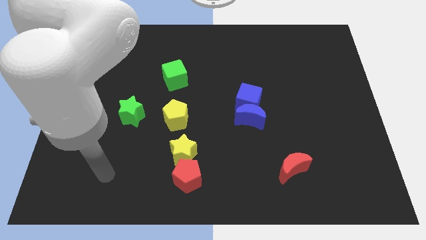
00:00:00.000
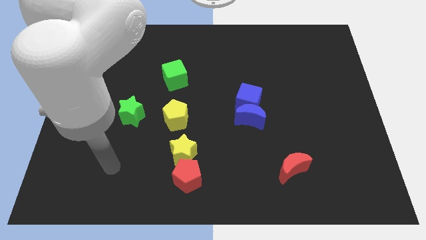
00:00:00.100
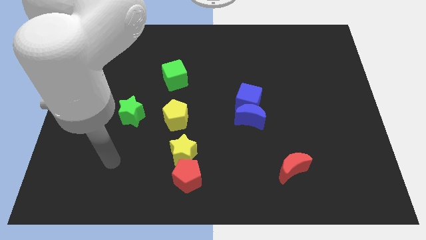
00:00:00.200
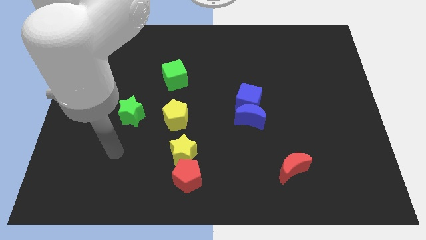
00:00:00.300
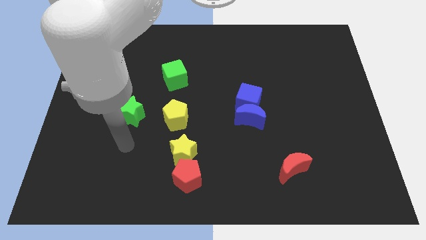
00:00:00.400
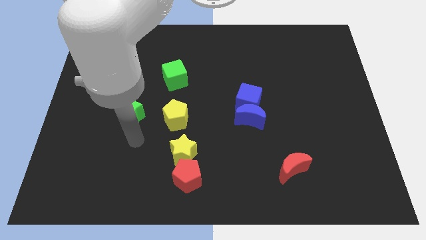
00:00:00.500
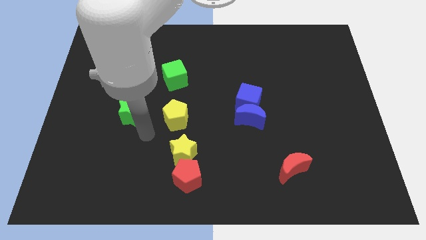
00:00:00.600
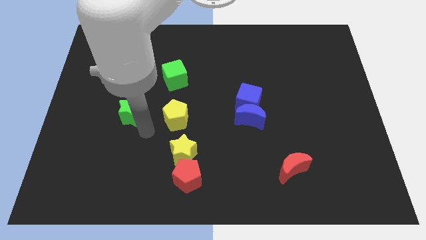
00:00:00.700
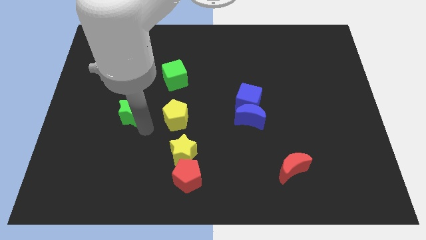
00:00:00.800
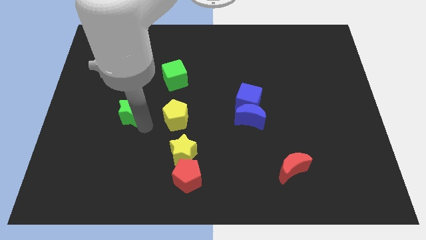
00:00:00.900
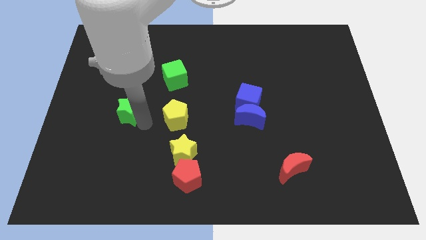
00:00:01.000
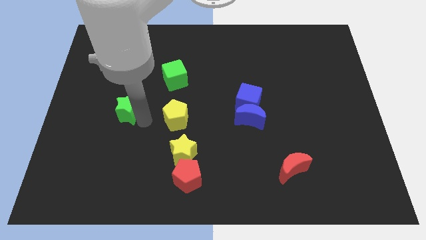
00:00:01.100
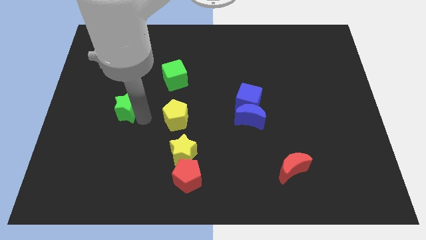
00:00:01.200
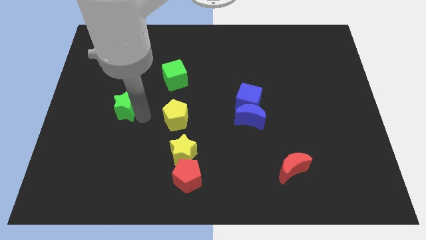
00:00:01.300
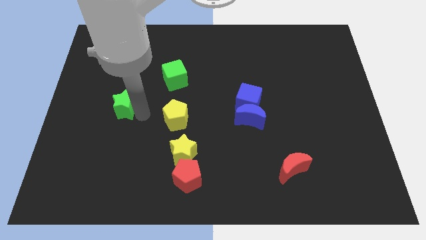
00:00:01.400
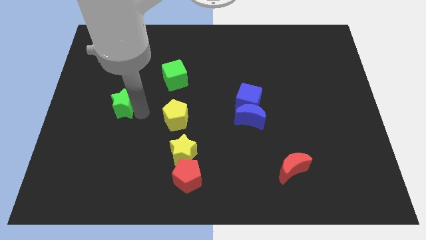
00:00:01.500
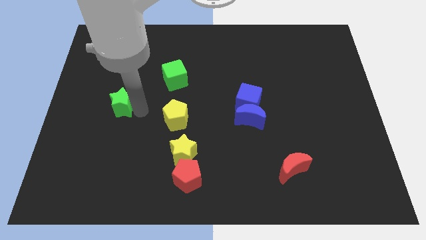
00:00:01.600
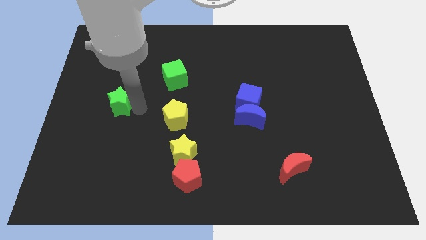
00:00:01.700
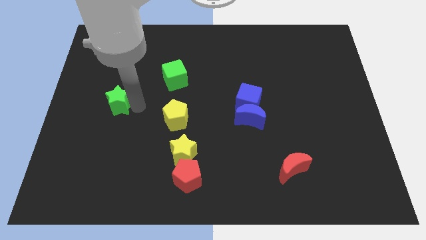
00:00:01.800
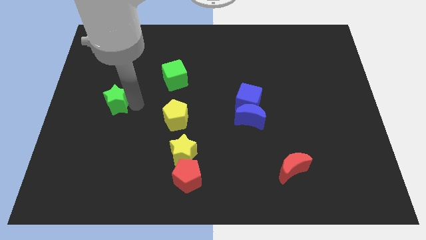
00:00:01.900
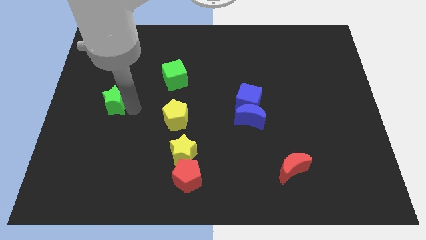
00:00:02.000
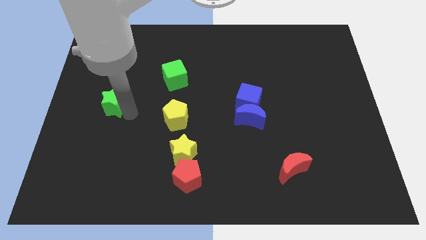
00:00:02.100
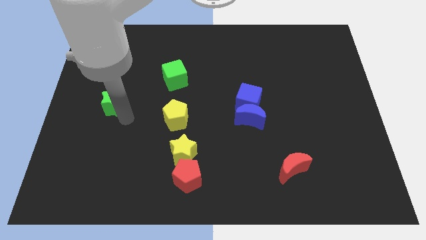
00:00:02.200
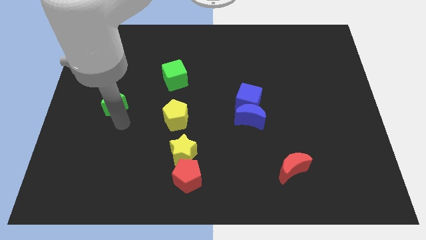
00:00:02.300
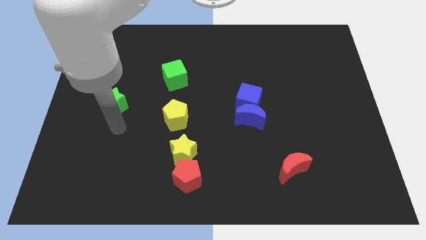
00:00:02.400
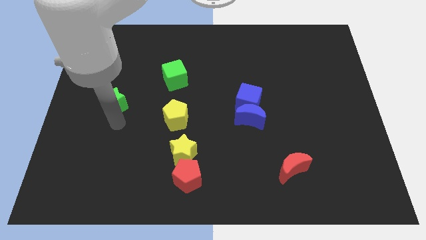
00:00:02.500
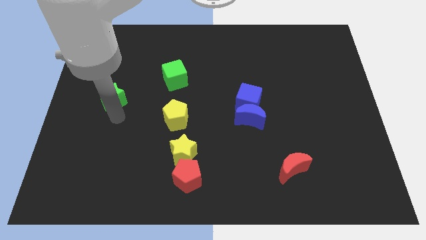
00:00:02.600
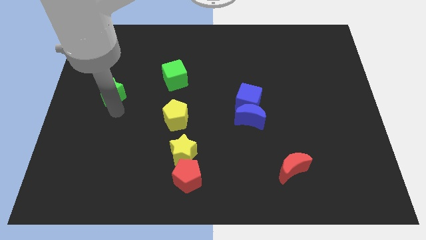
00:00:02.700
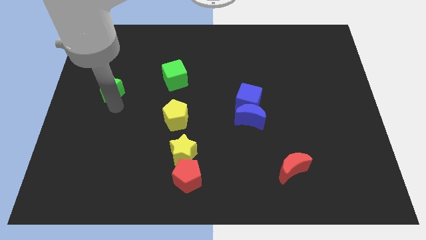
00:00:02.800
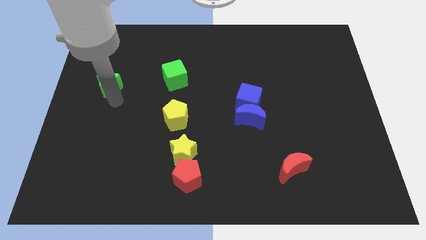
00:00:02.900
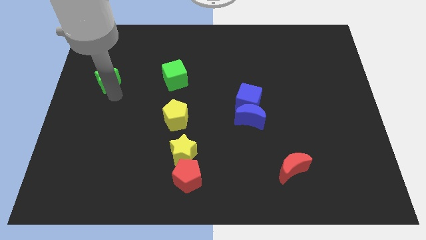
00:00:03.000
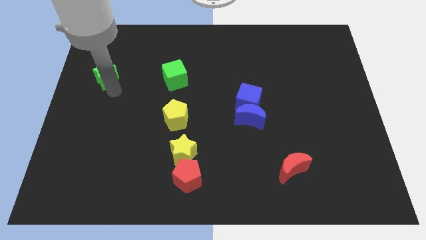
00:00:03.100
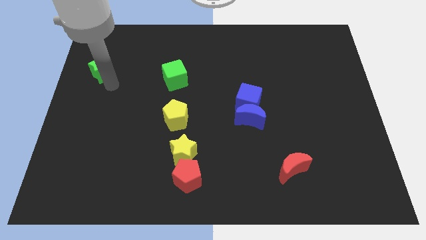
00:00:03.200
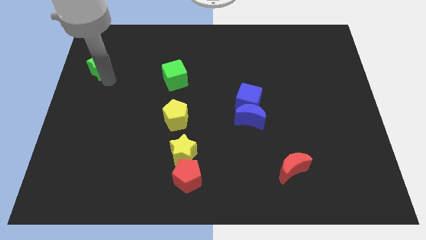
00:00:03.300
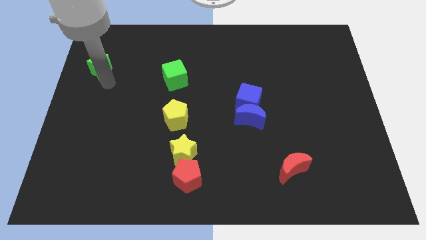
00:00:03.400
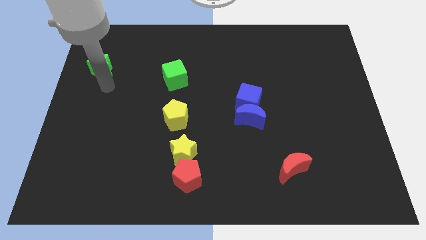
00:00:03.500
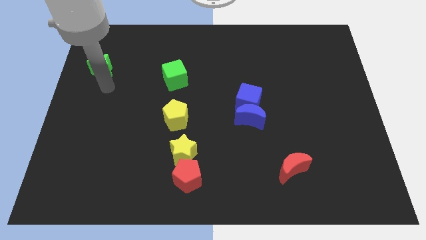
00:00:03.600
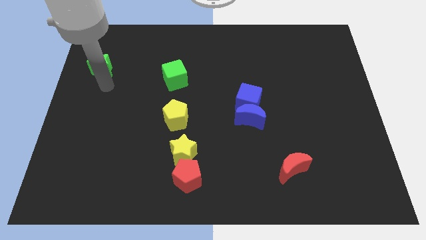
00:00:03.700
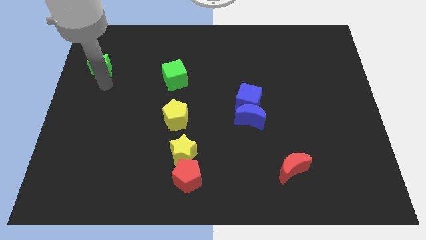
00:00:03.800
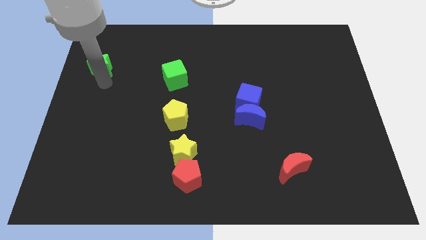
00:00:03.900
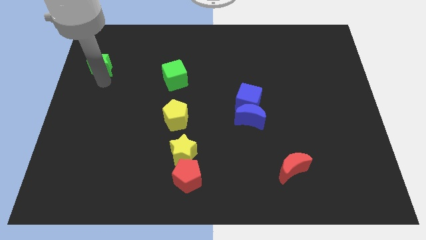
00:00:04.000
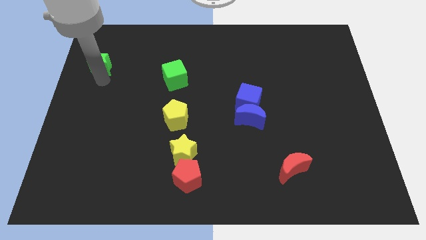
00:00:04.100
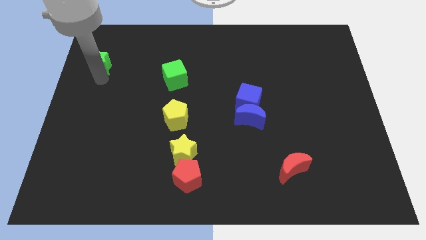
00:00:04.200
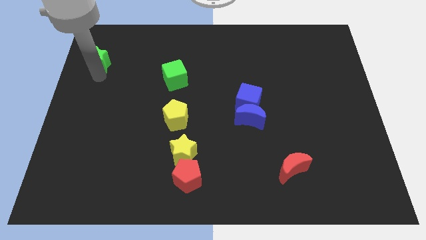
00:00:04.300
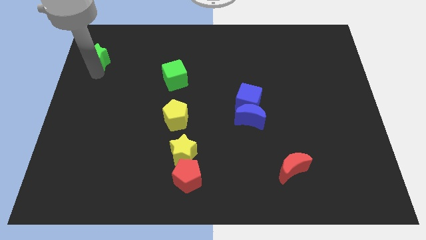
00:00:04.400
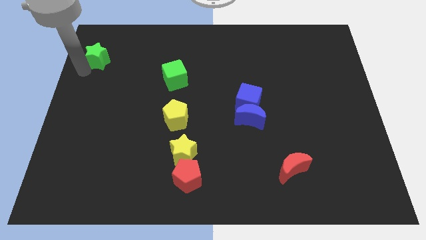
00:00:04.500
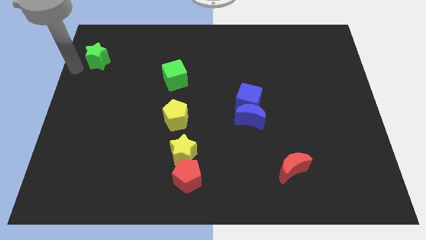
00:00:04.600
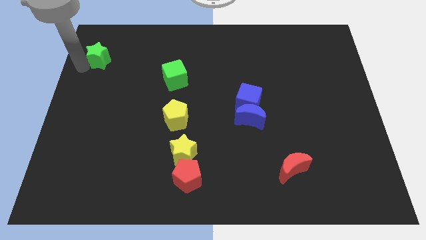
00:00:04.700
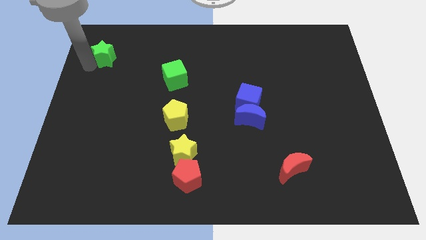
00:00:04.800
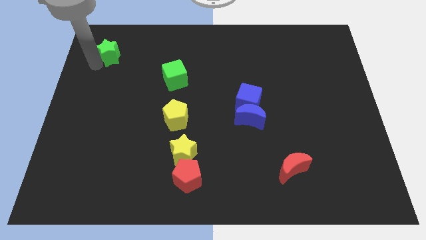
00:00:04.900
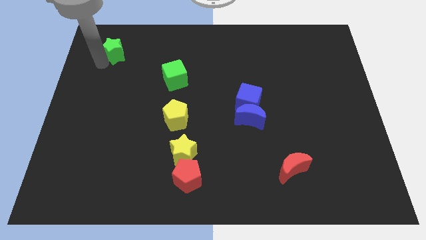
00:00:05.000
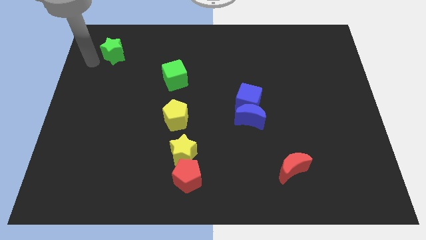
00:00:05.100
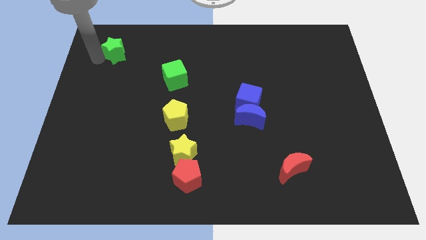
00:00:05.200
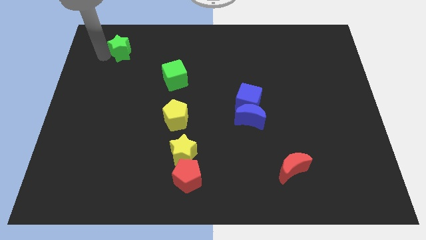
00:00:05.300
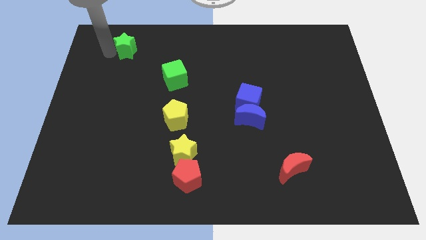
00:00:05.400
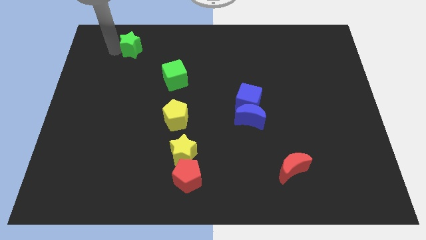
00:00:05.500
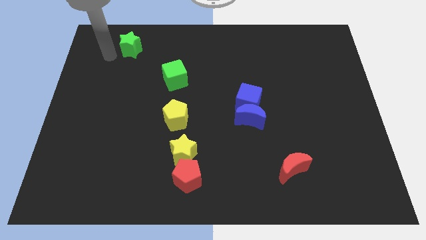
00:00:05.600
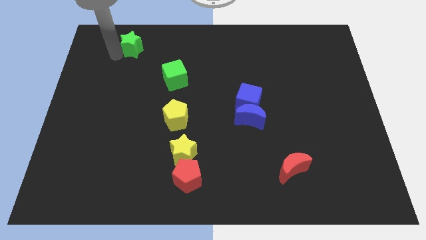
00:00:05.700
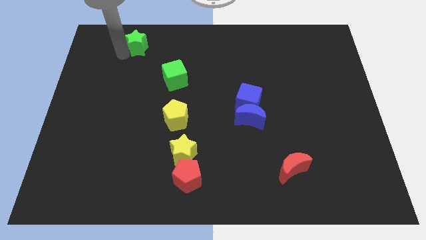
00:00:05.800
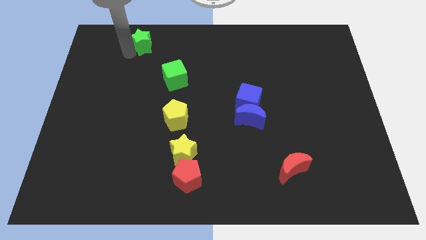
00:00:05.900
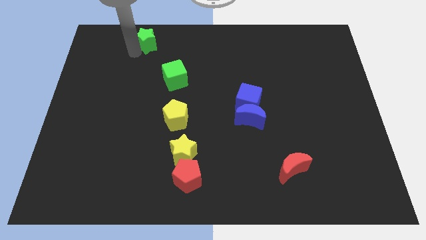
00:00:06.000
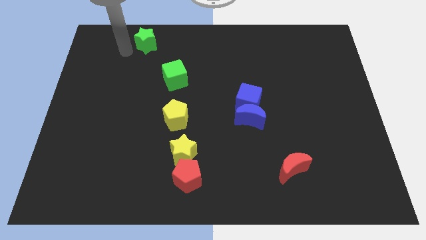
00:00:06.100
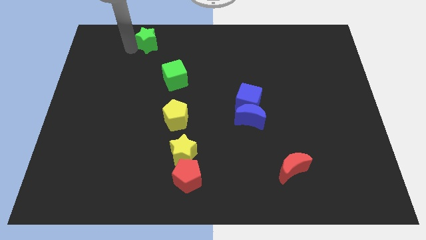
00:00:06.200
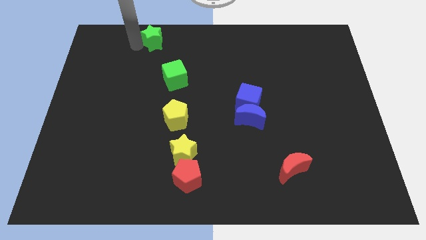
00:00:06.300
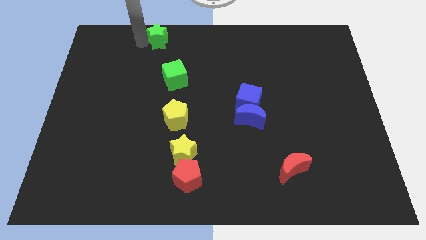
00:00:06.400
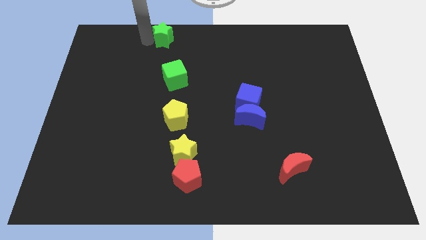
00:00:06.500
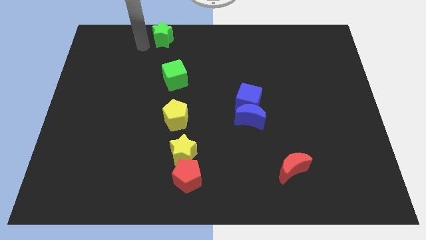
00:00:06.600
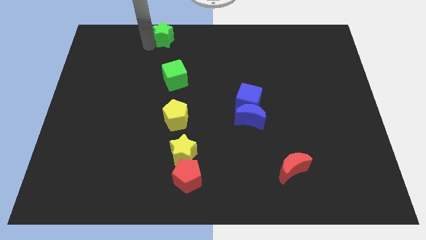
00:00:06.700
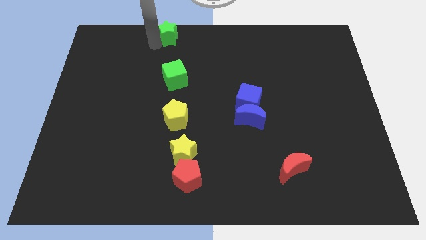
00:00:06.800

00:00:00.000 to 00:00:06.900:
push the green star to the top side

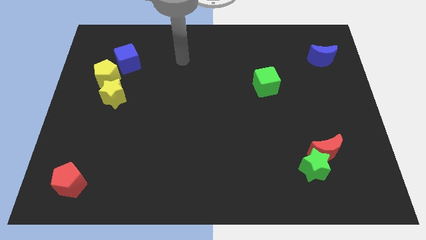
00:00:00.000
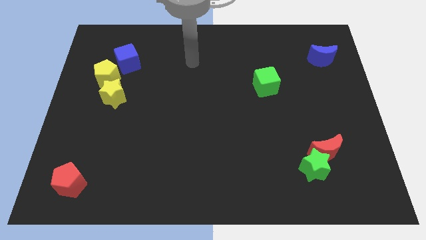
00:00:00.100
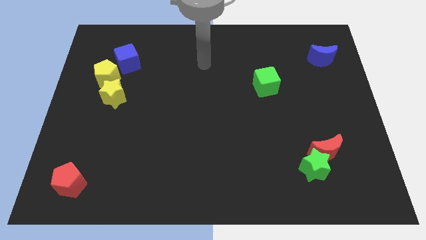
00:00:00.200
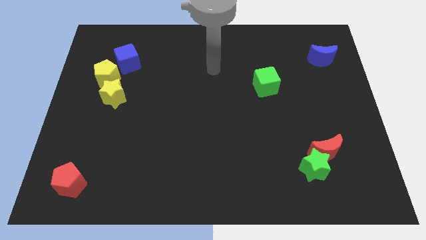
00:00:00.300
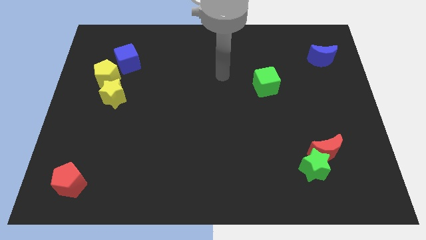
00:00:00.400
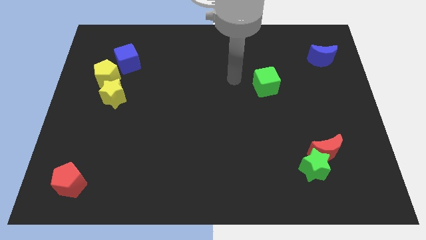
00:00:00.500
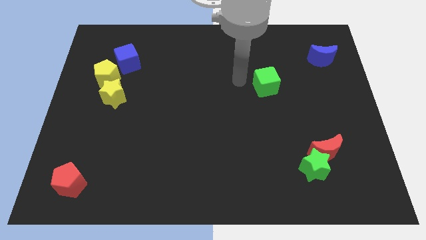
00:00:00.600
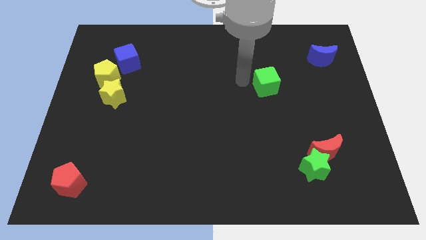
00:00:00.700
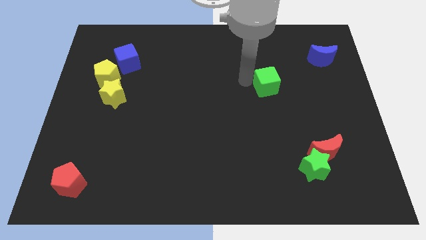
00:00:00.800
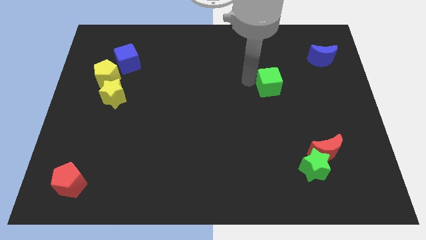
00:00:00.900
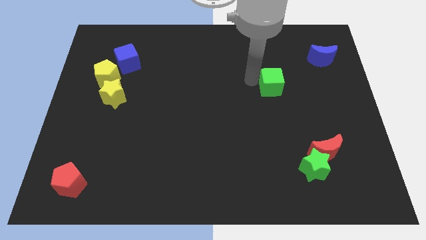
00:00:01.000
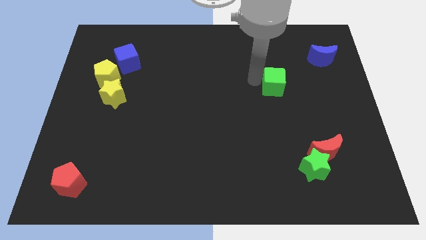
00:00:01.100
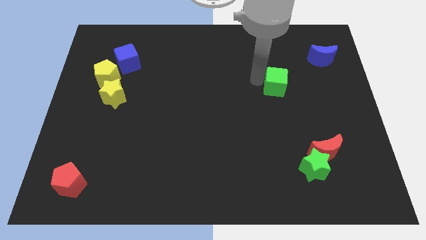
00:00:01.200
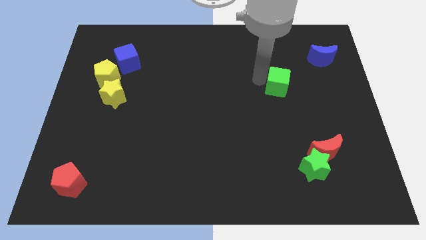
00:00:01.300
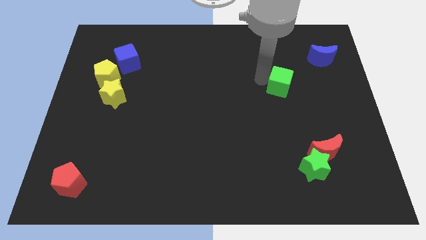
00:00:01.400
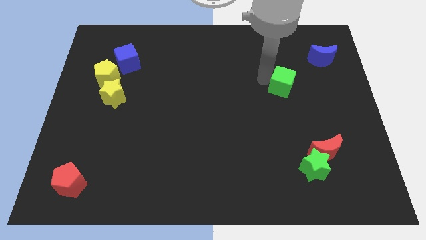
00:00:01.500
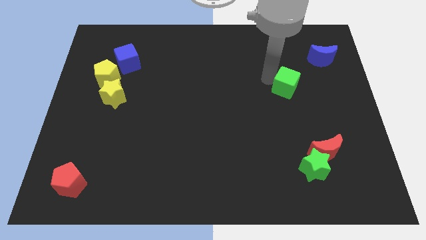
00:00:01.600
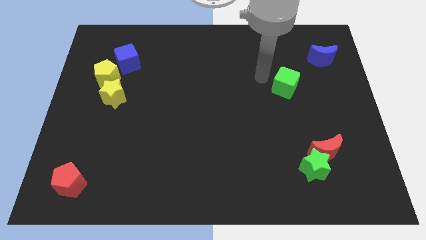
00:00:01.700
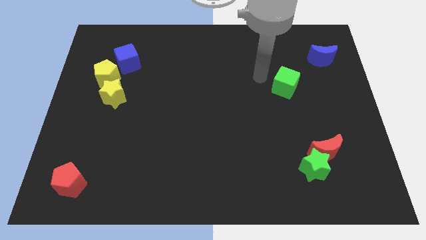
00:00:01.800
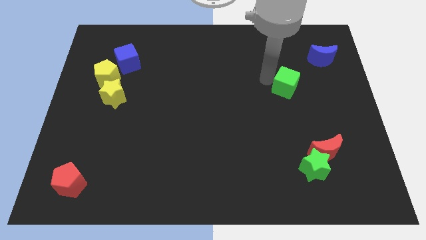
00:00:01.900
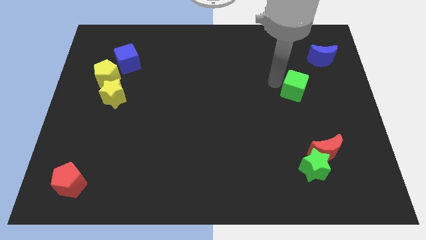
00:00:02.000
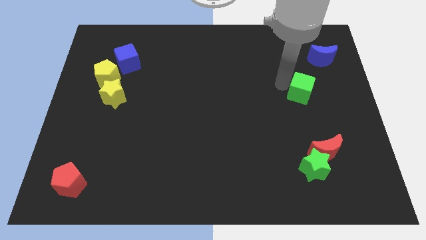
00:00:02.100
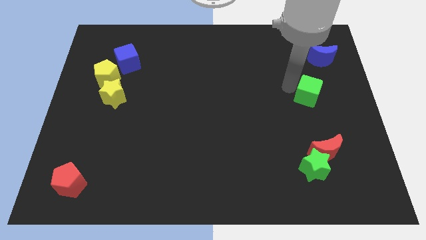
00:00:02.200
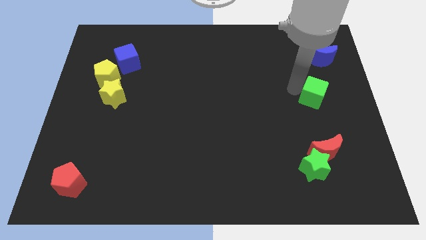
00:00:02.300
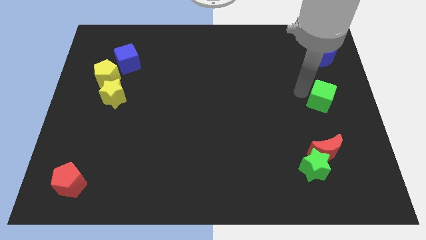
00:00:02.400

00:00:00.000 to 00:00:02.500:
move the green cube to the right side
